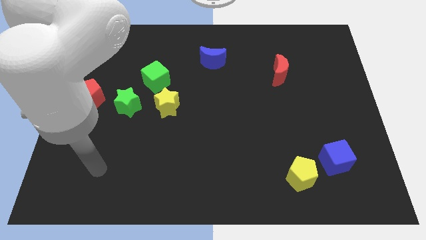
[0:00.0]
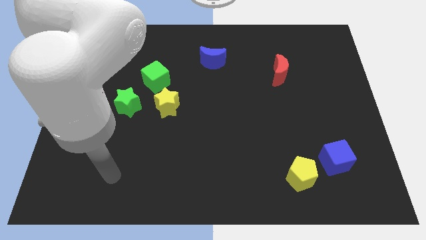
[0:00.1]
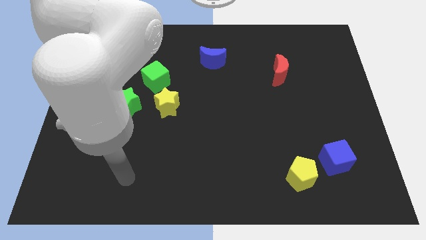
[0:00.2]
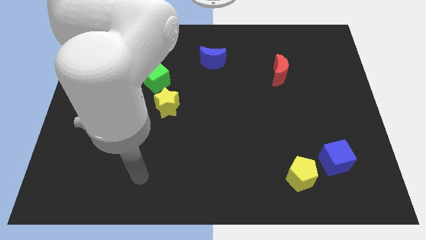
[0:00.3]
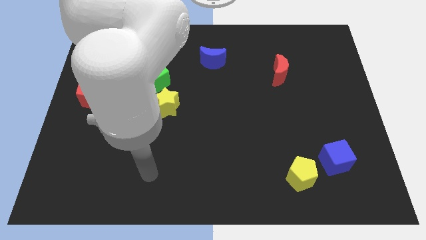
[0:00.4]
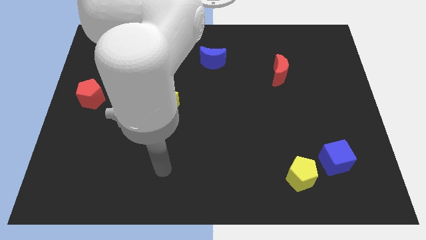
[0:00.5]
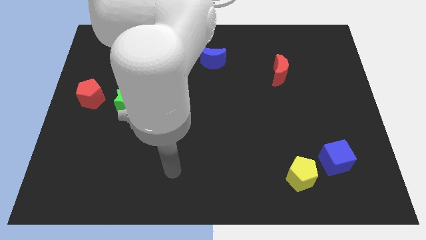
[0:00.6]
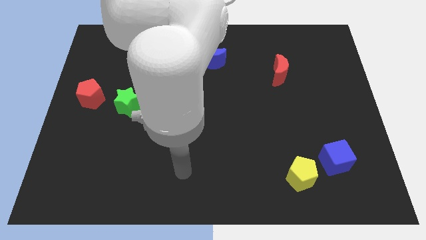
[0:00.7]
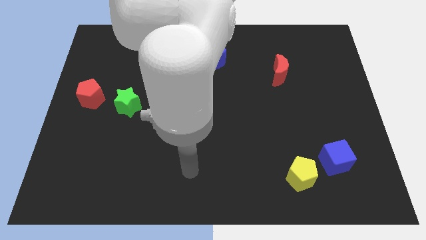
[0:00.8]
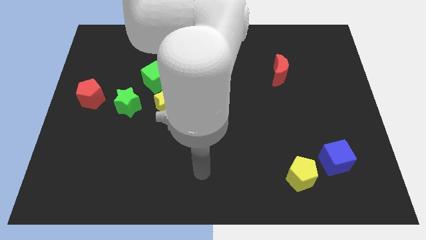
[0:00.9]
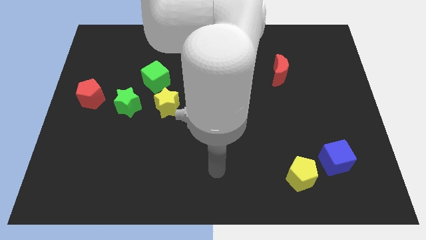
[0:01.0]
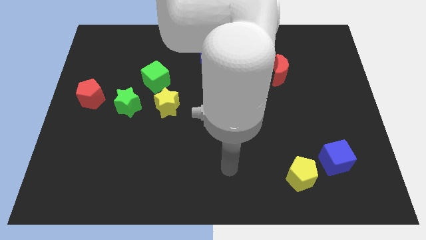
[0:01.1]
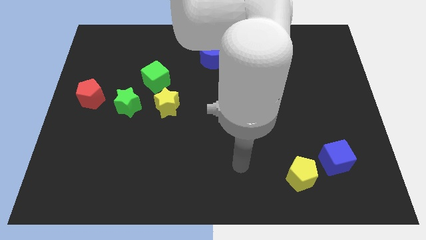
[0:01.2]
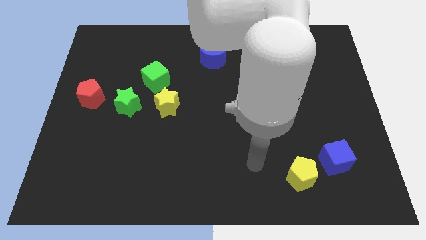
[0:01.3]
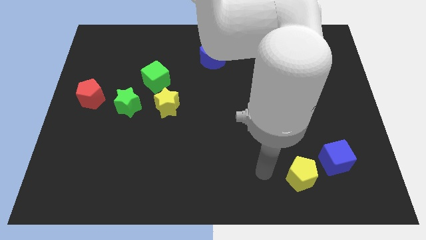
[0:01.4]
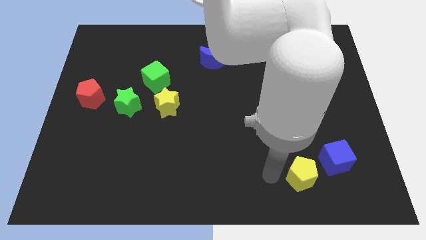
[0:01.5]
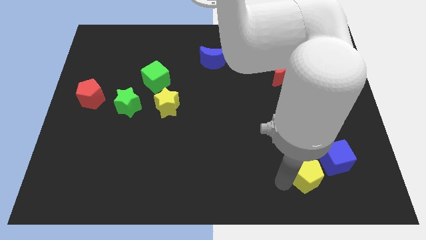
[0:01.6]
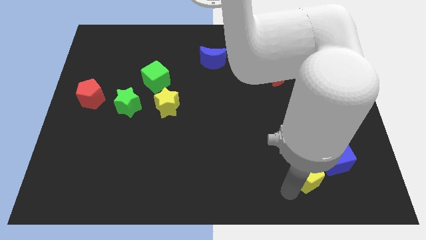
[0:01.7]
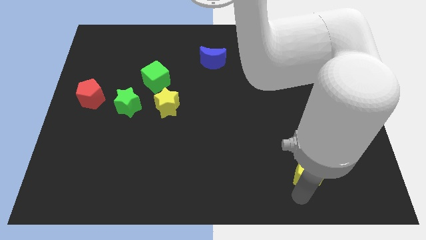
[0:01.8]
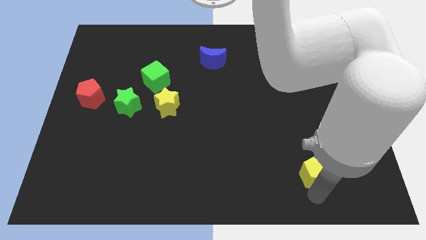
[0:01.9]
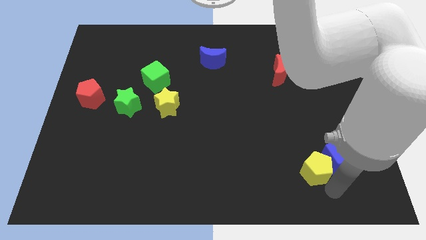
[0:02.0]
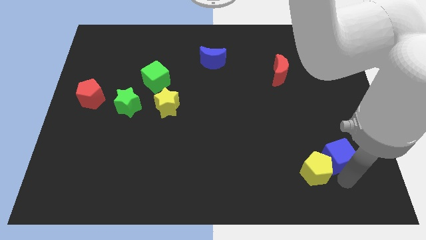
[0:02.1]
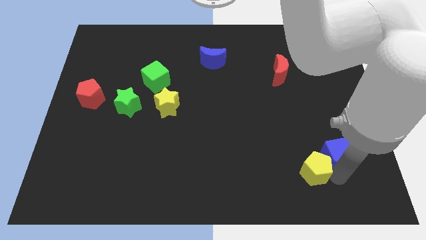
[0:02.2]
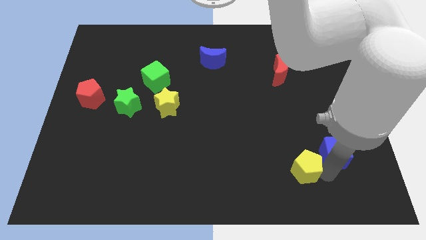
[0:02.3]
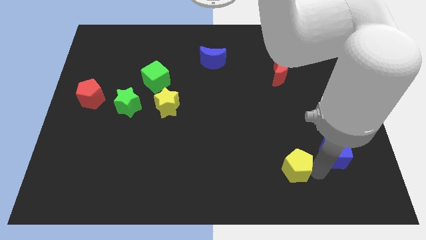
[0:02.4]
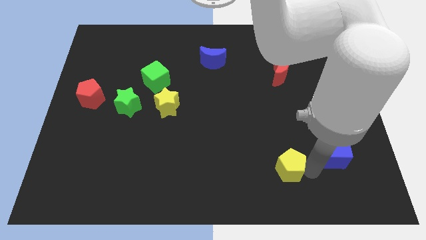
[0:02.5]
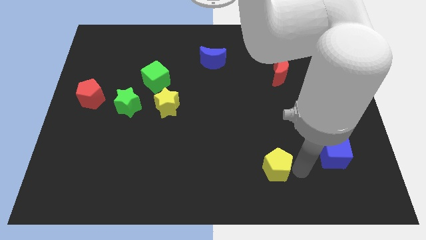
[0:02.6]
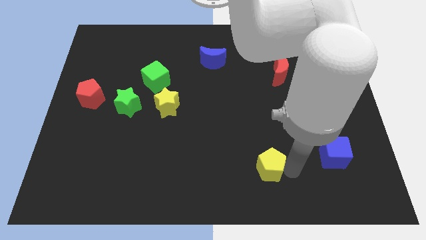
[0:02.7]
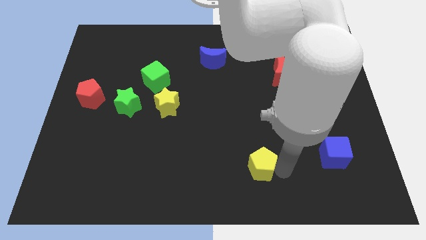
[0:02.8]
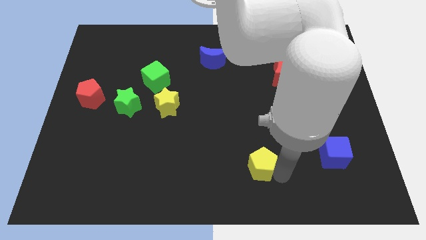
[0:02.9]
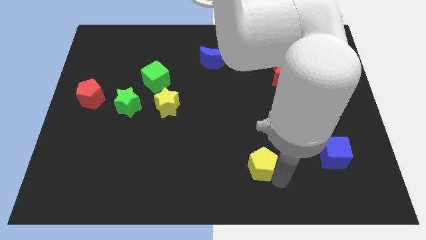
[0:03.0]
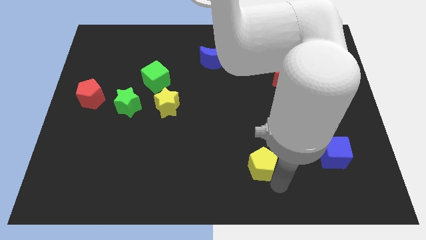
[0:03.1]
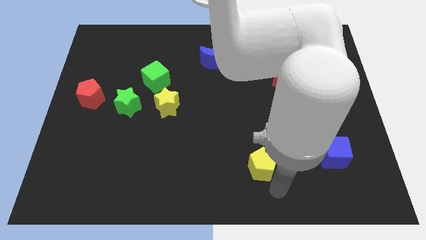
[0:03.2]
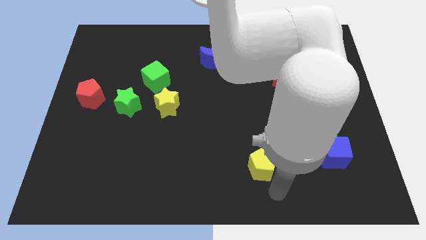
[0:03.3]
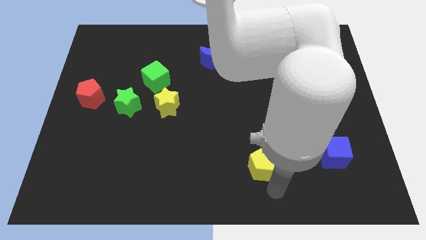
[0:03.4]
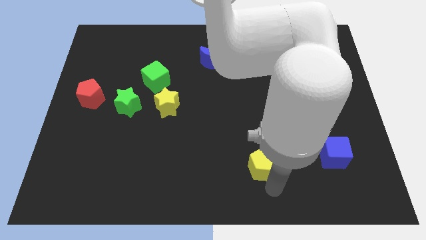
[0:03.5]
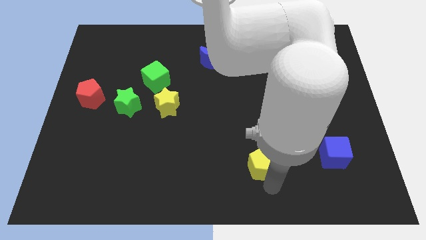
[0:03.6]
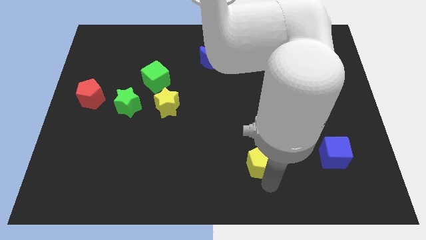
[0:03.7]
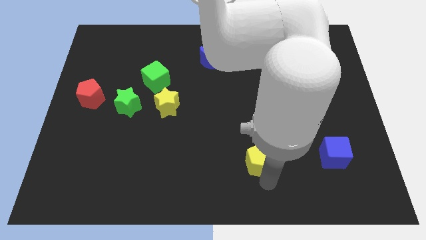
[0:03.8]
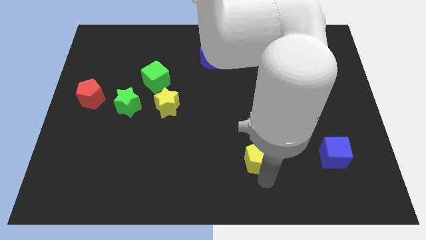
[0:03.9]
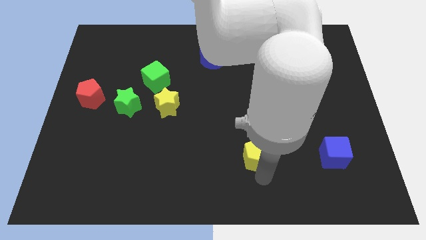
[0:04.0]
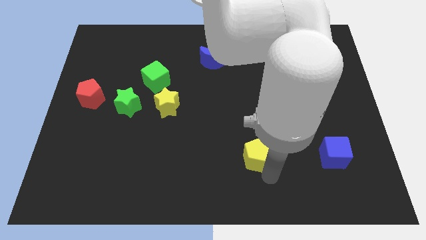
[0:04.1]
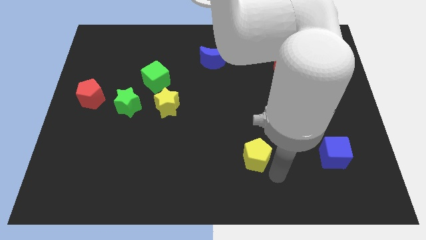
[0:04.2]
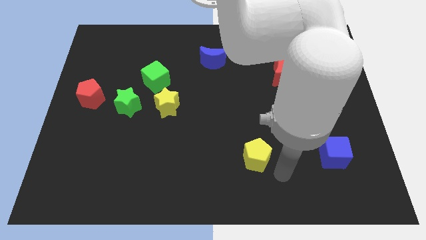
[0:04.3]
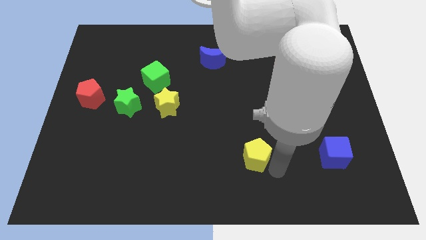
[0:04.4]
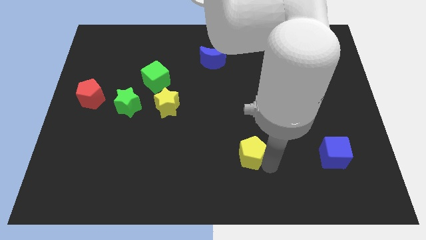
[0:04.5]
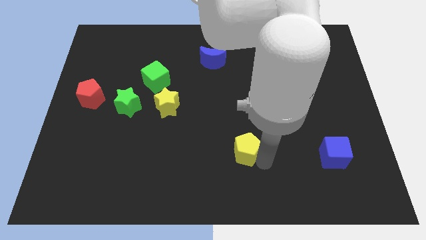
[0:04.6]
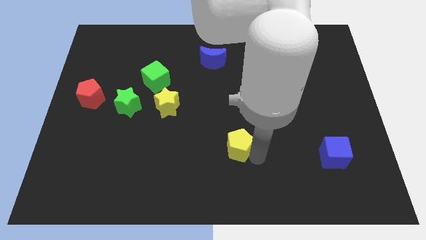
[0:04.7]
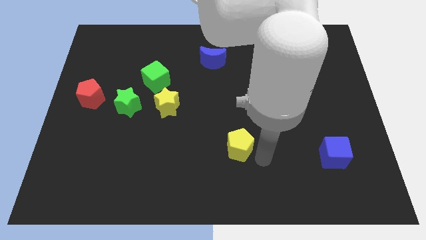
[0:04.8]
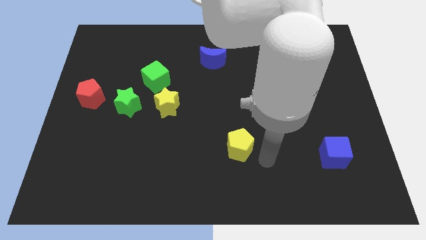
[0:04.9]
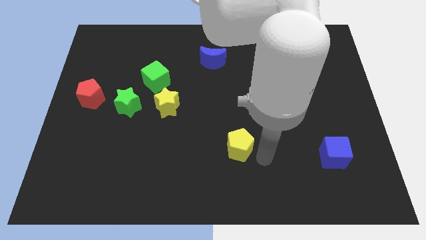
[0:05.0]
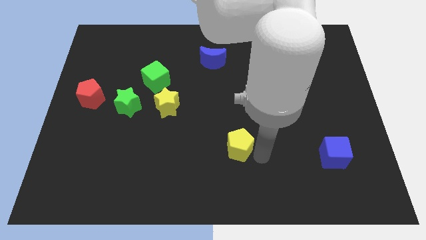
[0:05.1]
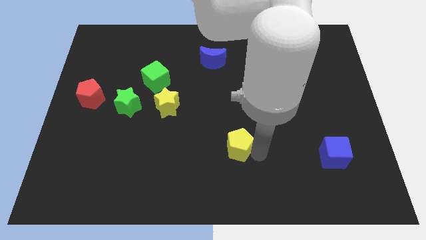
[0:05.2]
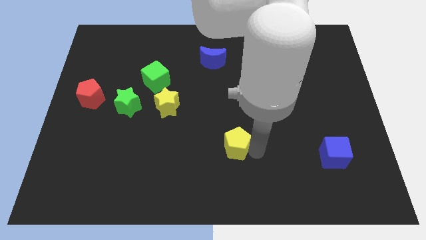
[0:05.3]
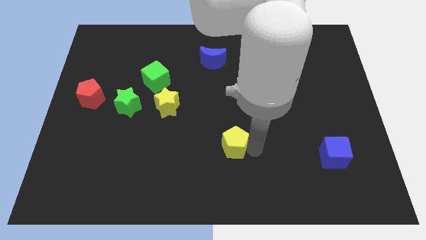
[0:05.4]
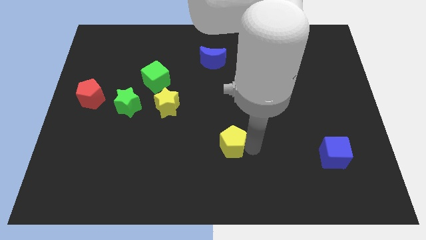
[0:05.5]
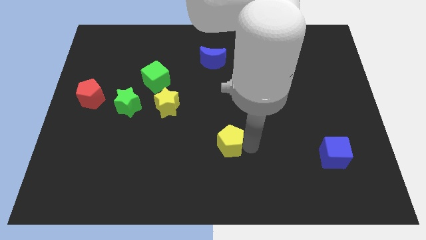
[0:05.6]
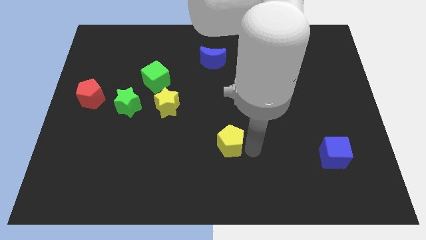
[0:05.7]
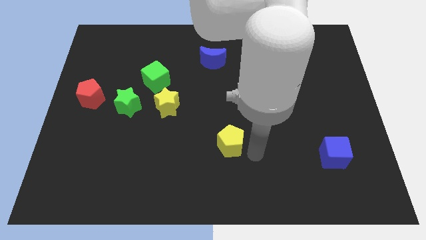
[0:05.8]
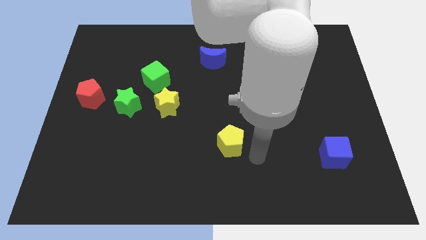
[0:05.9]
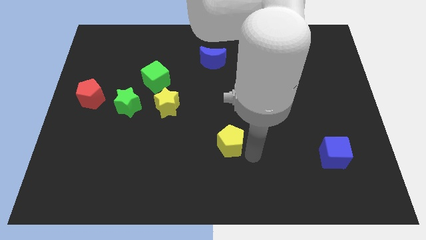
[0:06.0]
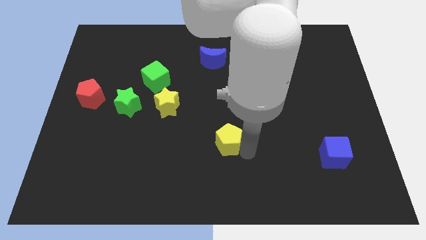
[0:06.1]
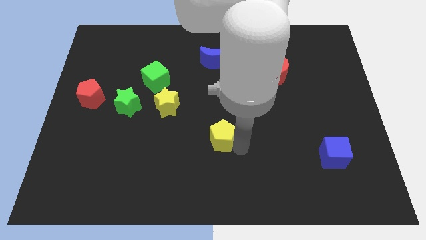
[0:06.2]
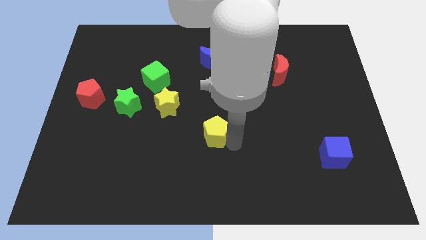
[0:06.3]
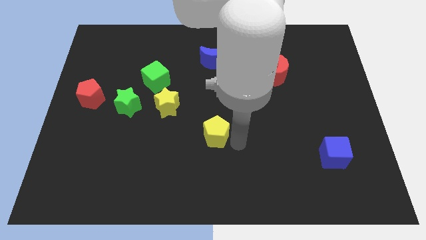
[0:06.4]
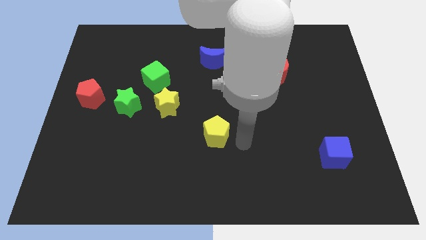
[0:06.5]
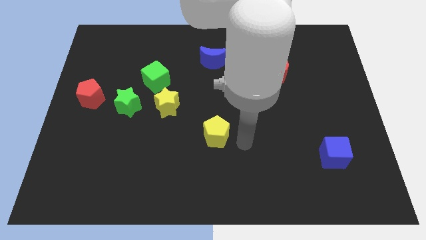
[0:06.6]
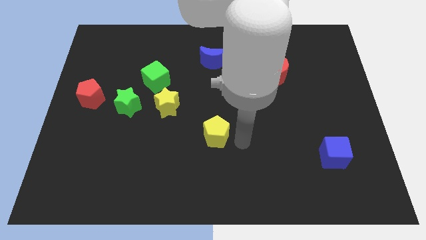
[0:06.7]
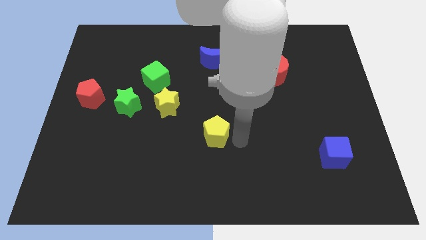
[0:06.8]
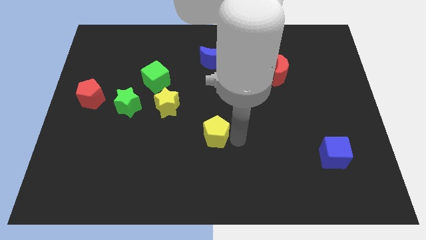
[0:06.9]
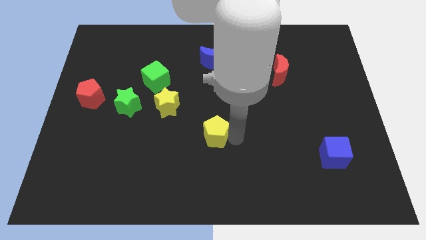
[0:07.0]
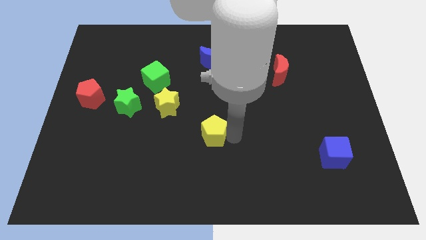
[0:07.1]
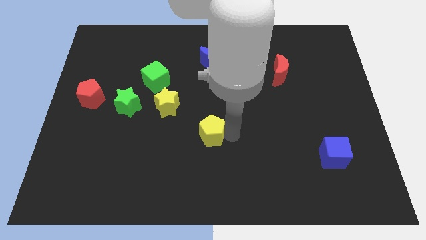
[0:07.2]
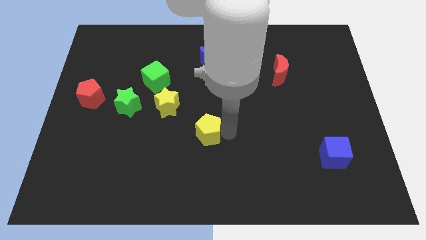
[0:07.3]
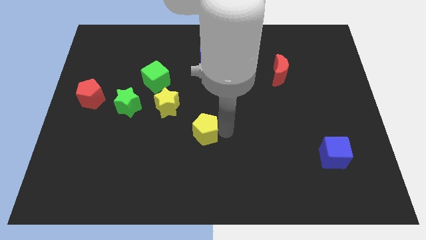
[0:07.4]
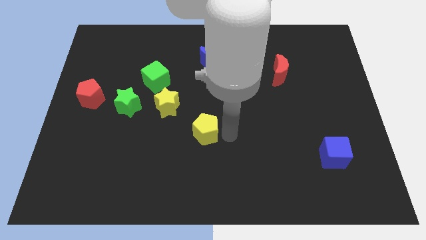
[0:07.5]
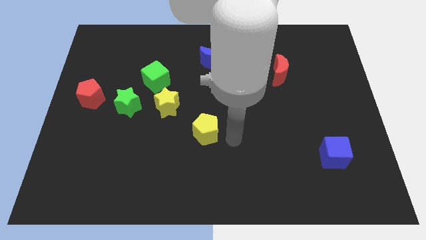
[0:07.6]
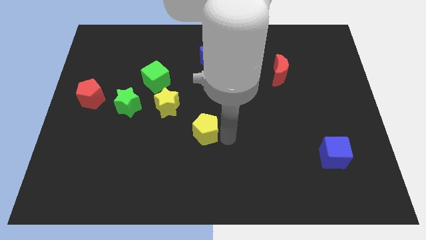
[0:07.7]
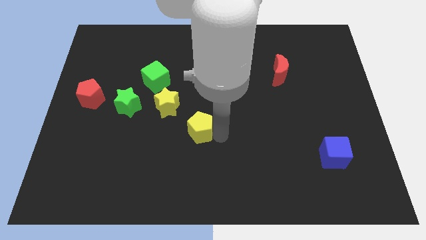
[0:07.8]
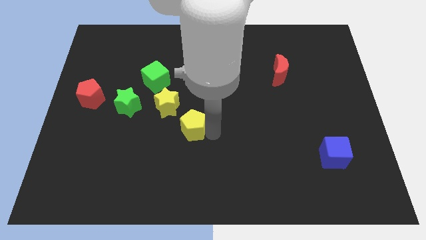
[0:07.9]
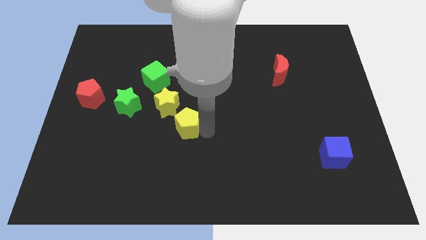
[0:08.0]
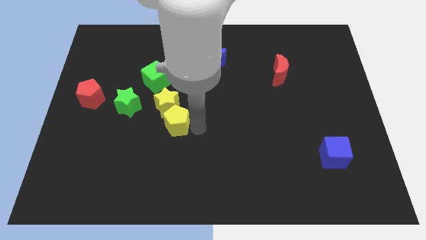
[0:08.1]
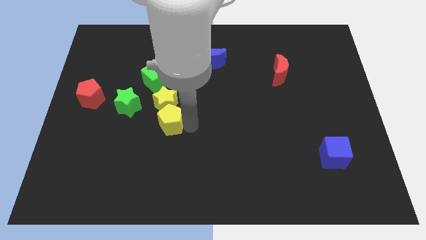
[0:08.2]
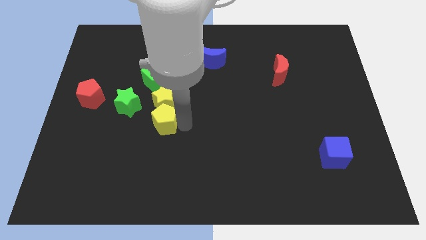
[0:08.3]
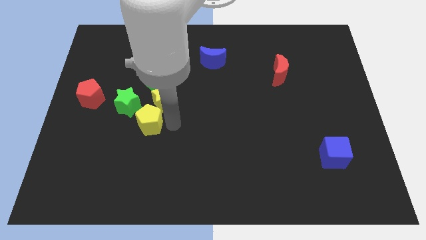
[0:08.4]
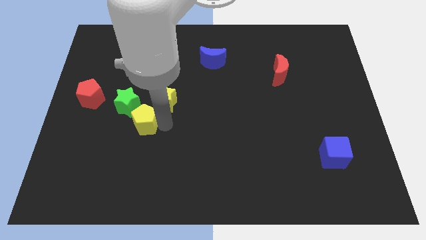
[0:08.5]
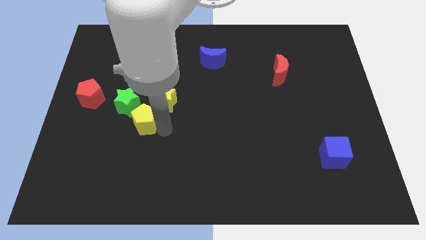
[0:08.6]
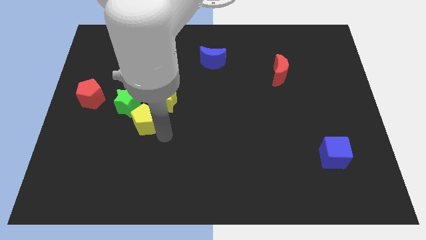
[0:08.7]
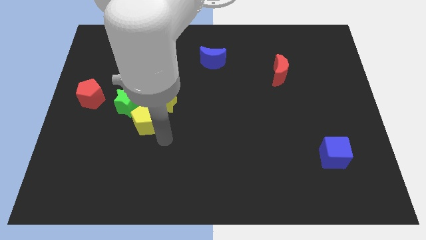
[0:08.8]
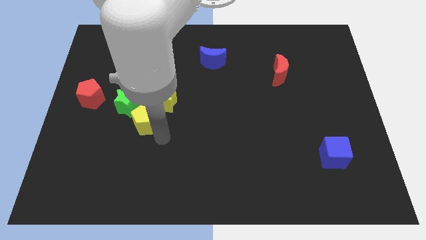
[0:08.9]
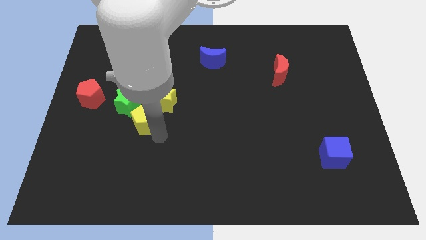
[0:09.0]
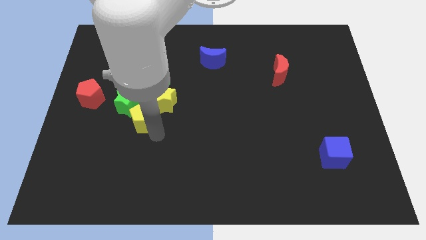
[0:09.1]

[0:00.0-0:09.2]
move the yellow pentagon towards the green star
